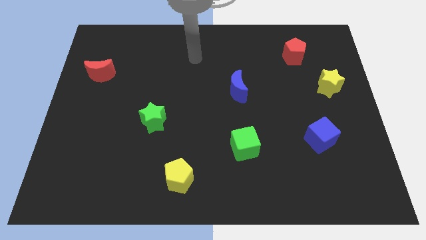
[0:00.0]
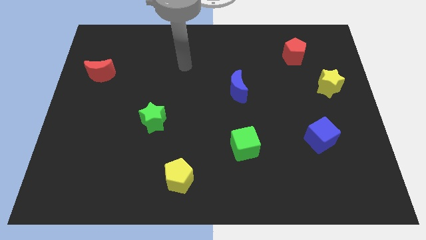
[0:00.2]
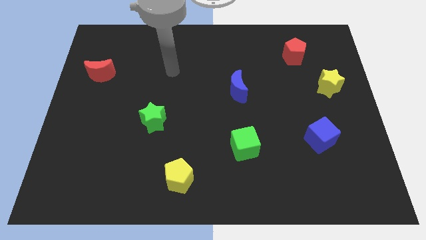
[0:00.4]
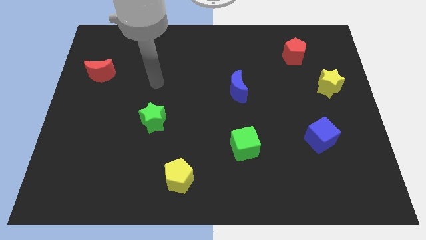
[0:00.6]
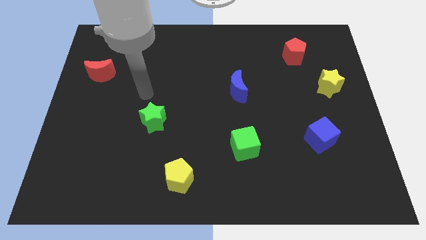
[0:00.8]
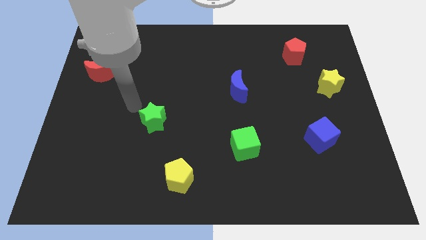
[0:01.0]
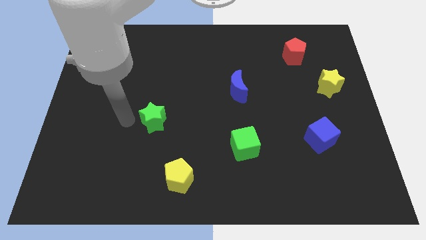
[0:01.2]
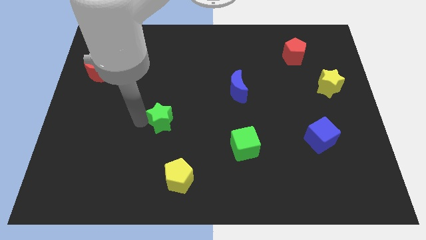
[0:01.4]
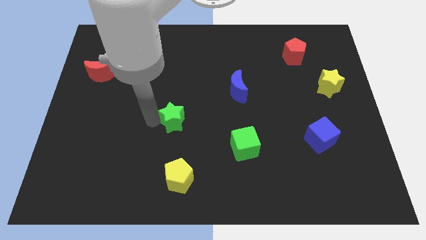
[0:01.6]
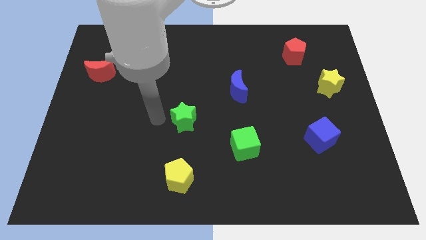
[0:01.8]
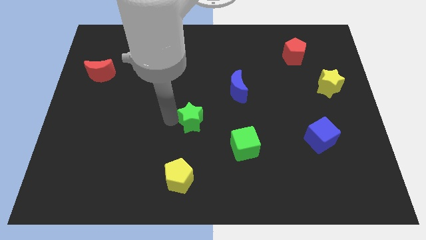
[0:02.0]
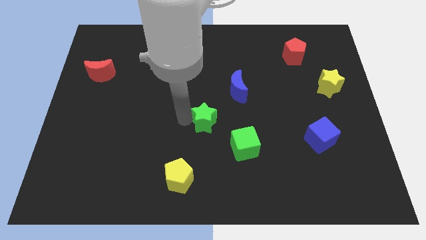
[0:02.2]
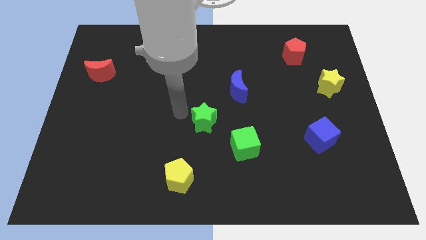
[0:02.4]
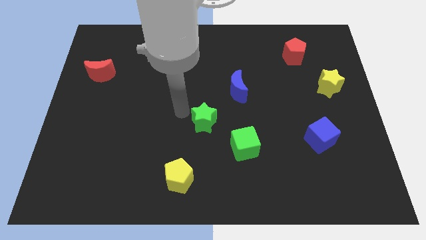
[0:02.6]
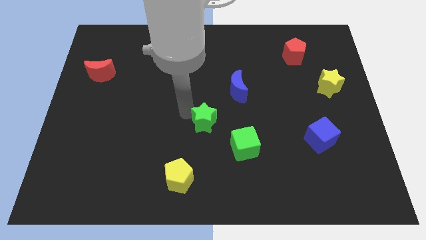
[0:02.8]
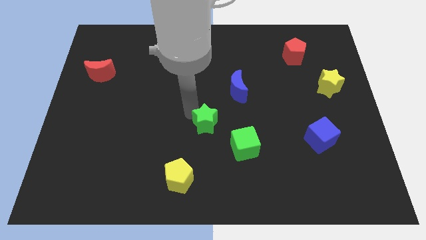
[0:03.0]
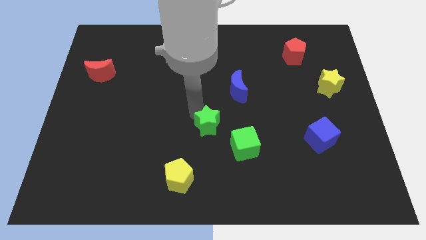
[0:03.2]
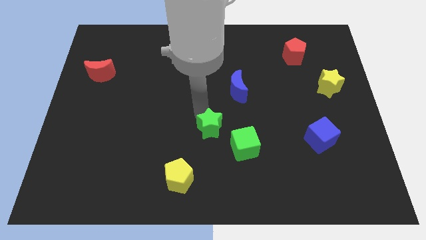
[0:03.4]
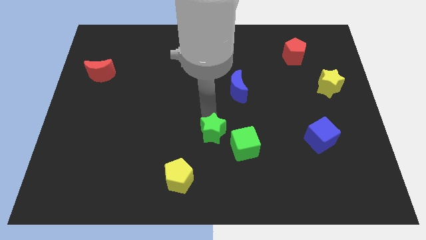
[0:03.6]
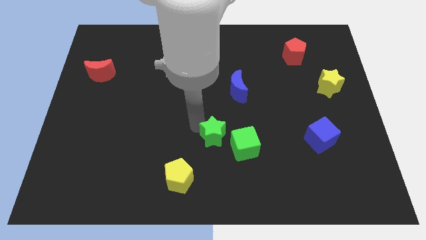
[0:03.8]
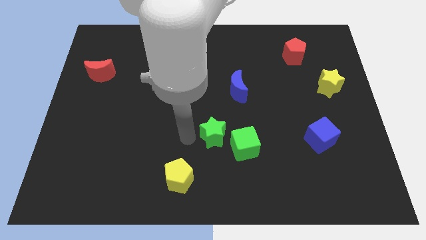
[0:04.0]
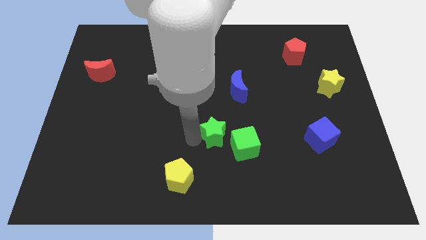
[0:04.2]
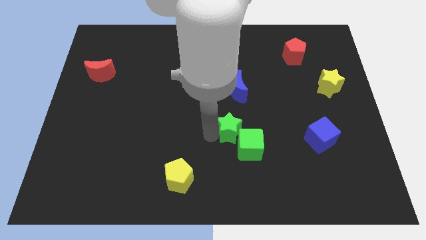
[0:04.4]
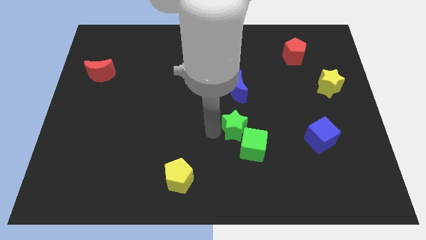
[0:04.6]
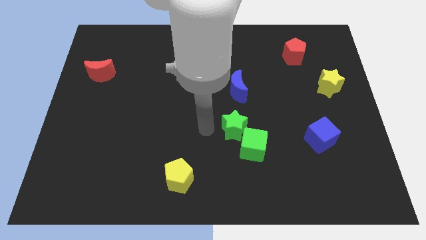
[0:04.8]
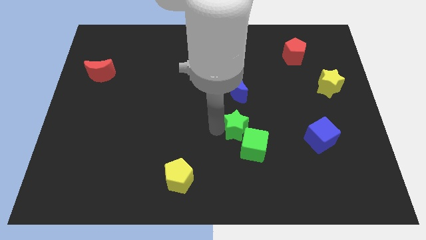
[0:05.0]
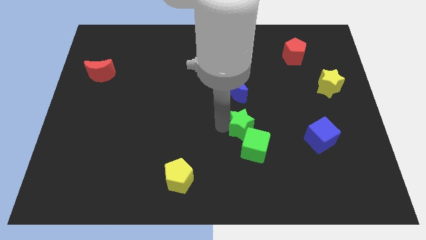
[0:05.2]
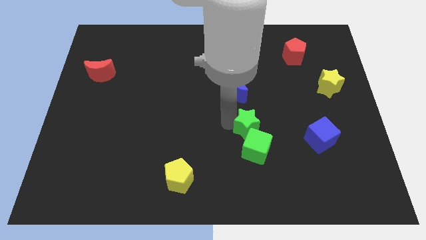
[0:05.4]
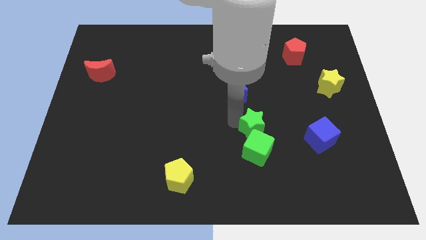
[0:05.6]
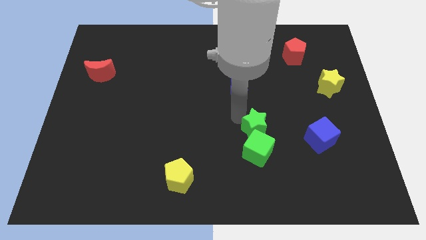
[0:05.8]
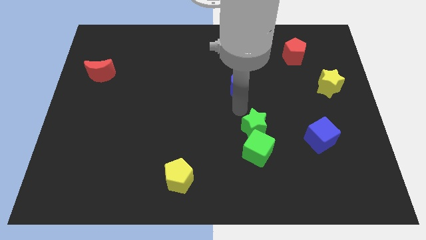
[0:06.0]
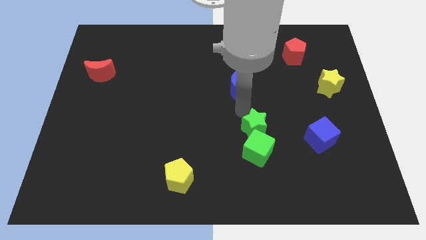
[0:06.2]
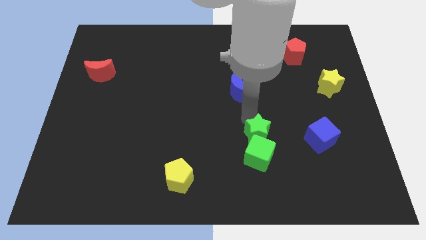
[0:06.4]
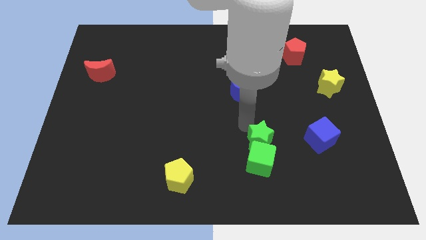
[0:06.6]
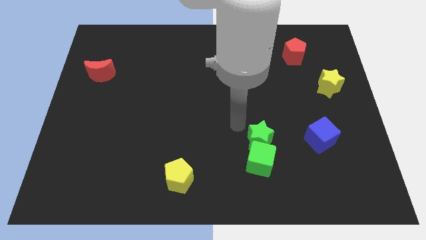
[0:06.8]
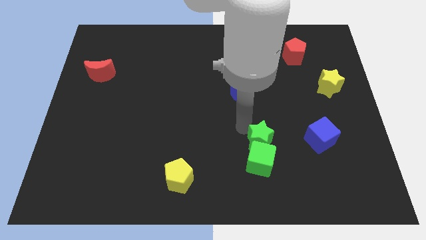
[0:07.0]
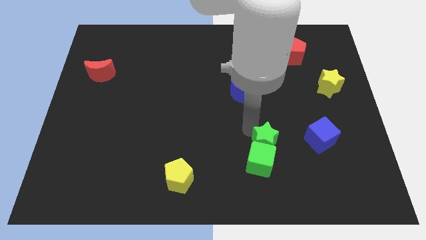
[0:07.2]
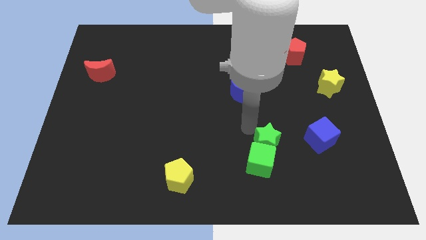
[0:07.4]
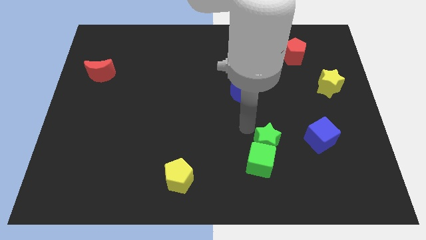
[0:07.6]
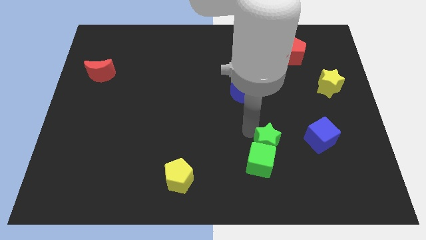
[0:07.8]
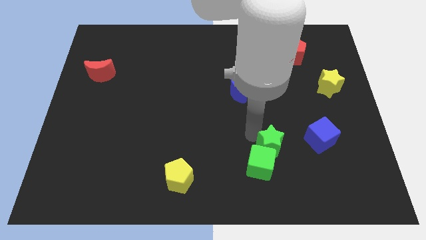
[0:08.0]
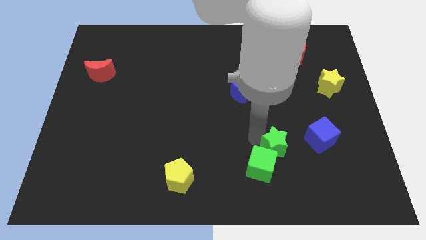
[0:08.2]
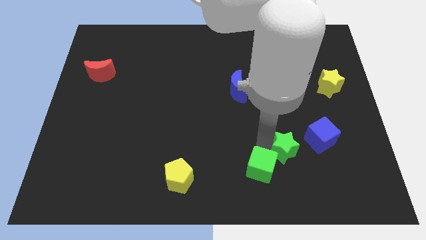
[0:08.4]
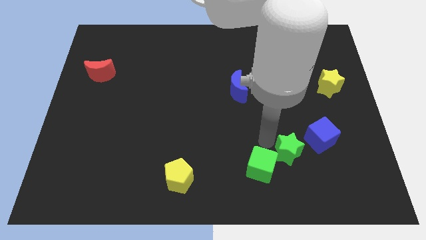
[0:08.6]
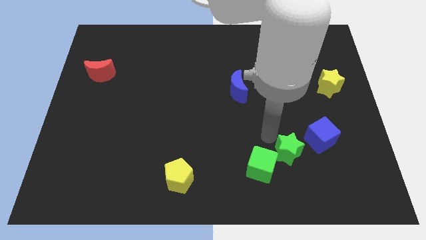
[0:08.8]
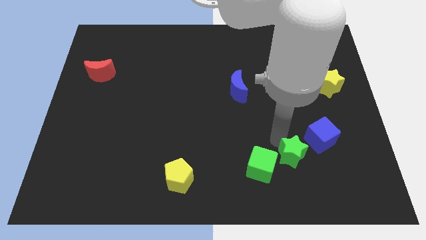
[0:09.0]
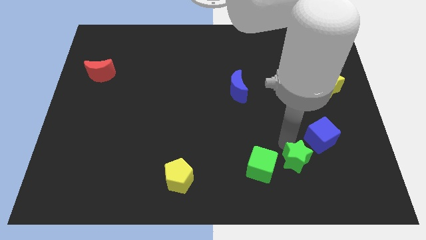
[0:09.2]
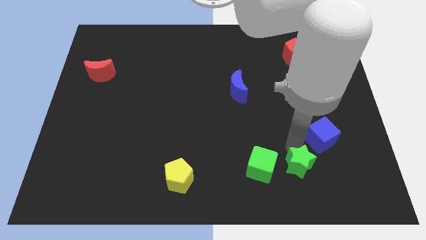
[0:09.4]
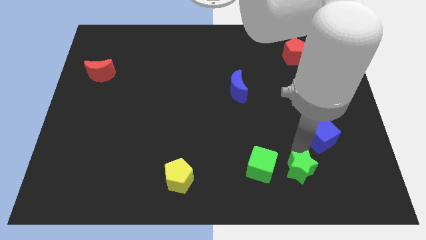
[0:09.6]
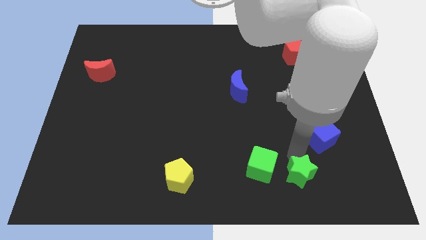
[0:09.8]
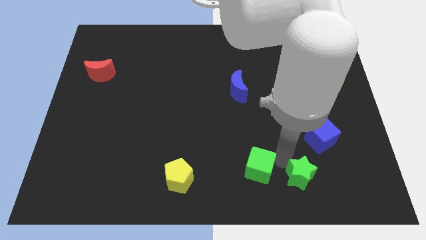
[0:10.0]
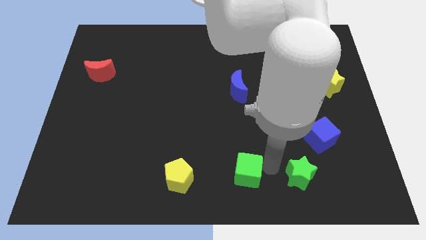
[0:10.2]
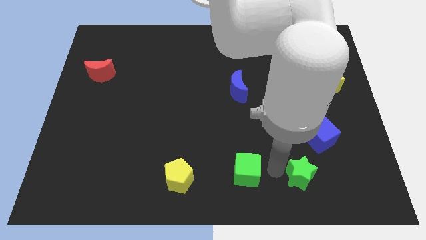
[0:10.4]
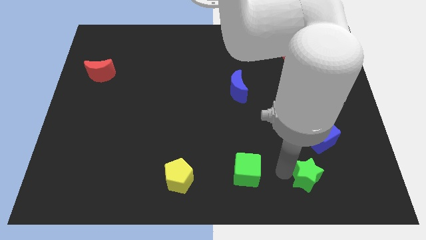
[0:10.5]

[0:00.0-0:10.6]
put the green star to the bottom side of the blue cube

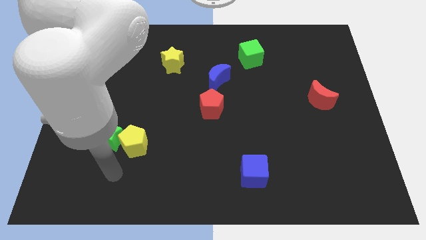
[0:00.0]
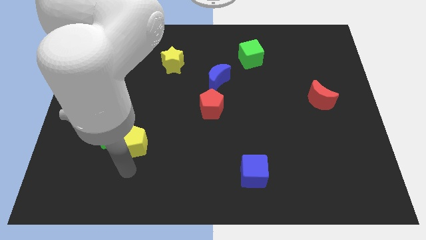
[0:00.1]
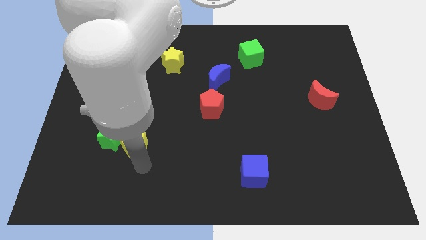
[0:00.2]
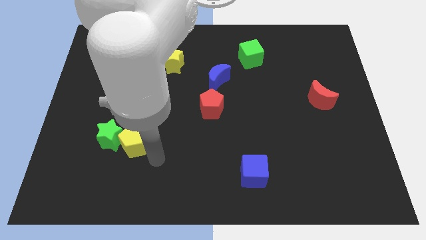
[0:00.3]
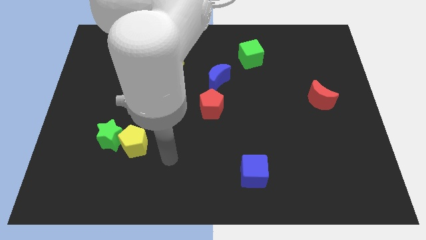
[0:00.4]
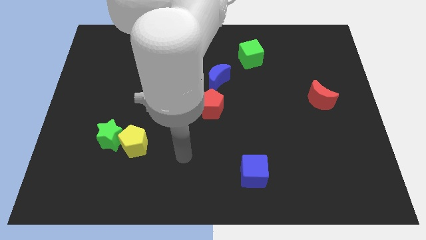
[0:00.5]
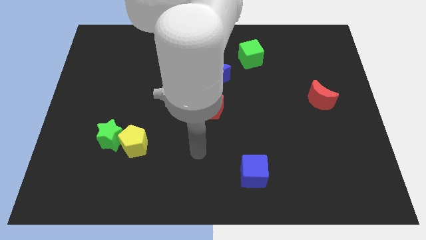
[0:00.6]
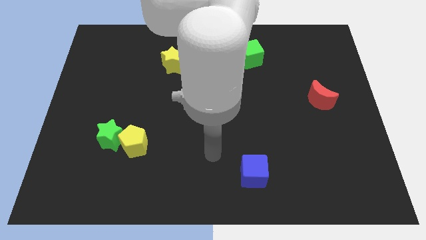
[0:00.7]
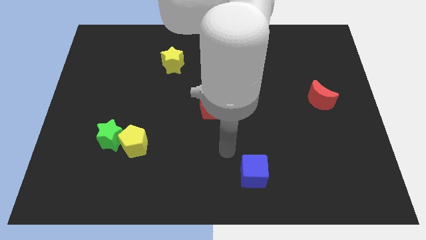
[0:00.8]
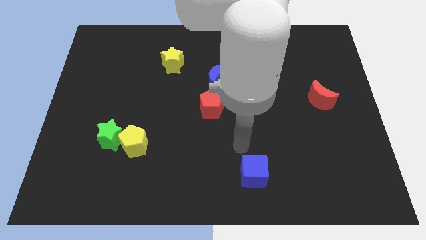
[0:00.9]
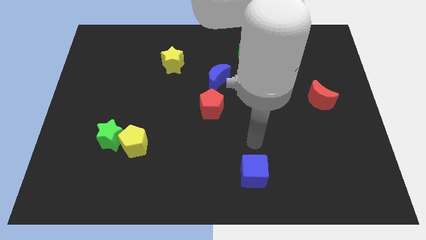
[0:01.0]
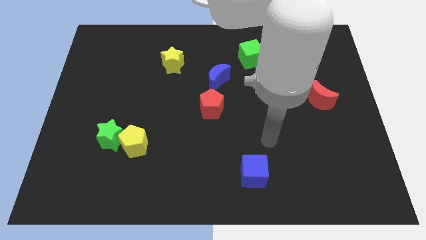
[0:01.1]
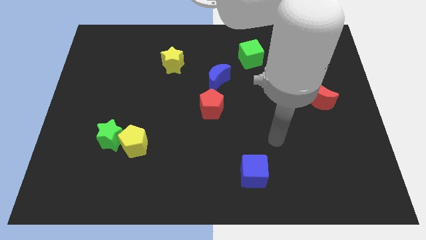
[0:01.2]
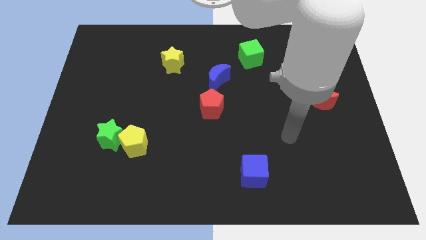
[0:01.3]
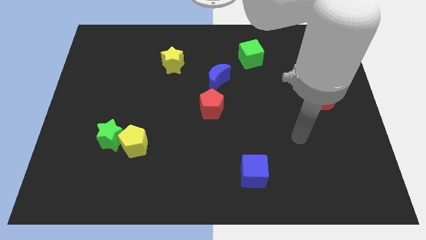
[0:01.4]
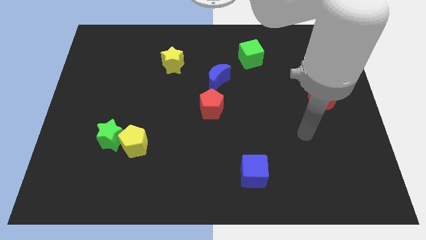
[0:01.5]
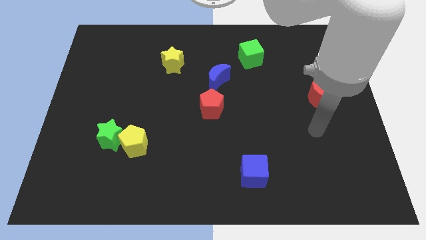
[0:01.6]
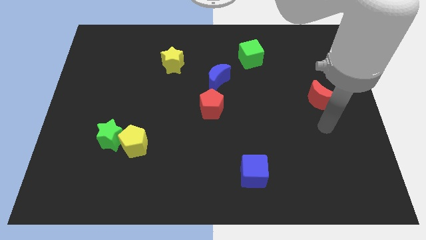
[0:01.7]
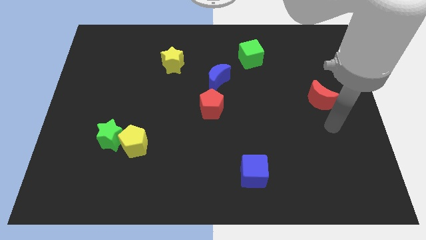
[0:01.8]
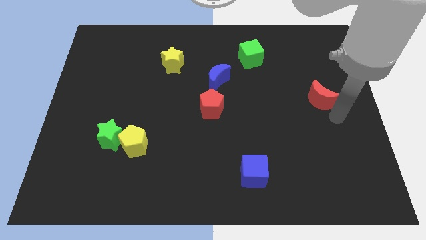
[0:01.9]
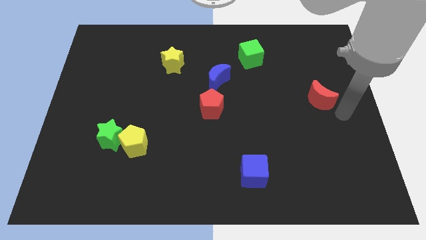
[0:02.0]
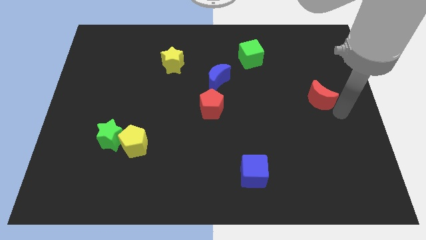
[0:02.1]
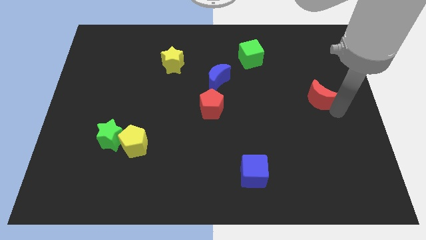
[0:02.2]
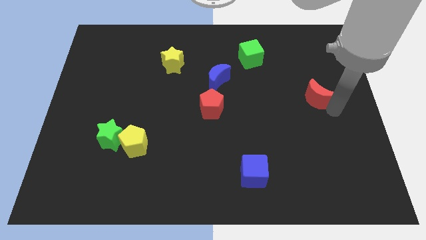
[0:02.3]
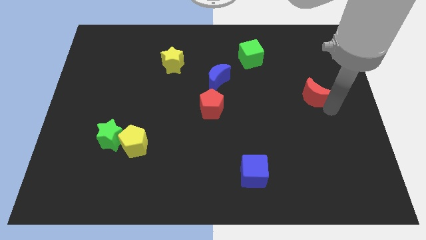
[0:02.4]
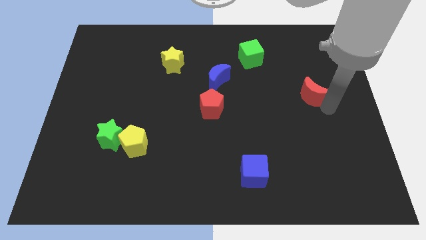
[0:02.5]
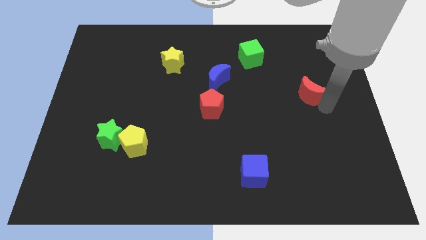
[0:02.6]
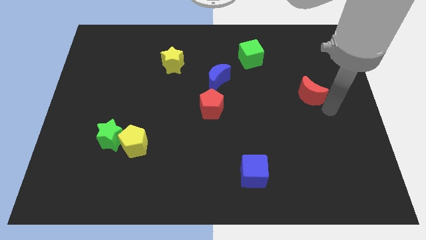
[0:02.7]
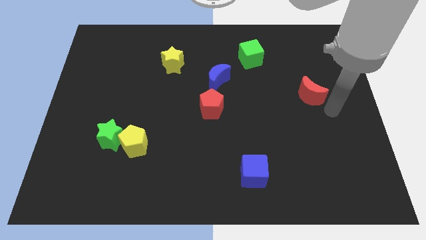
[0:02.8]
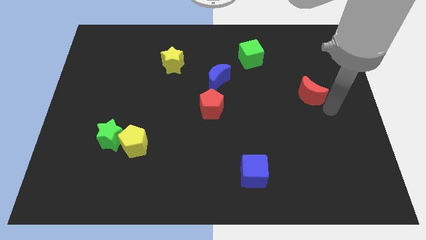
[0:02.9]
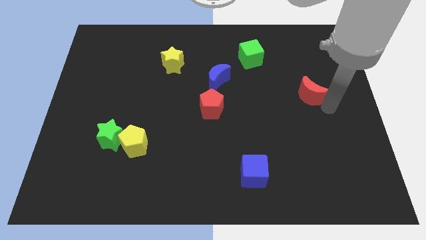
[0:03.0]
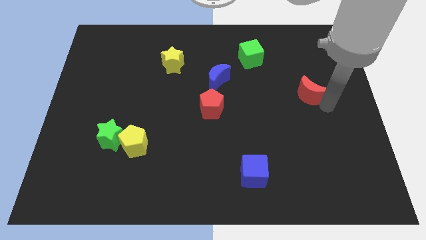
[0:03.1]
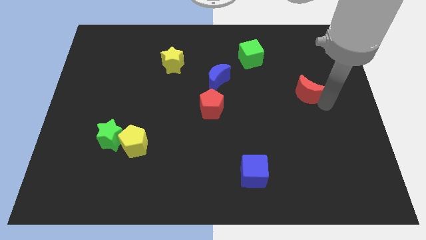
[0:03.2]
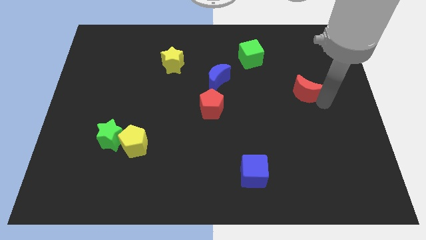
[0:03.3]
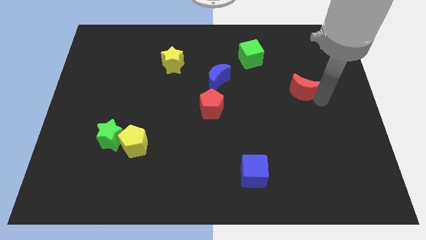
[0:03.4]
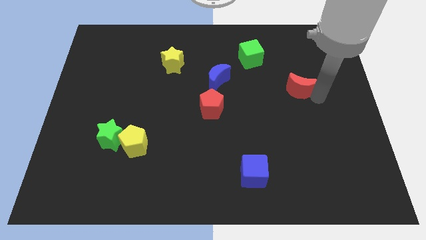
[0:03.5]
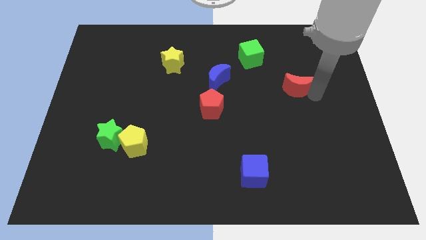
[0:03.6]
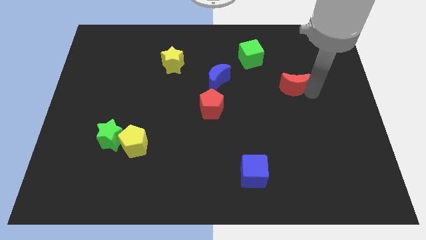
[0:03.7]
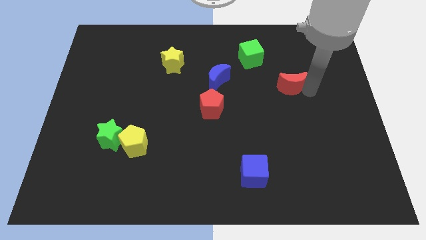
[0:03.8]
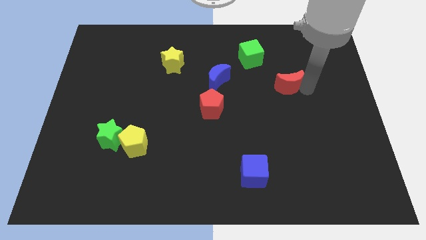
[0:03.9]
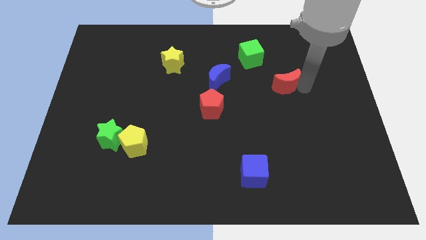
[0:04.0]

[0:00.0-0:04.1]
slide the red moon to the bottom right of the green cube
